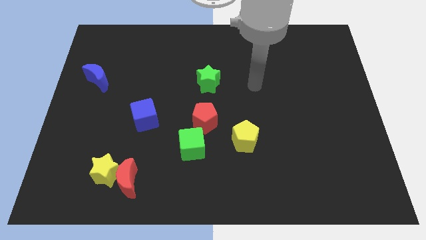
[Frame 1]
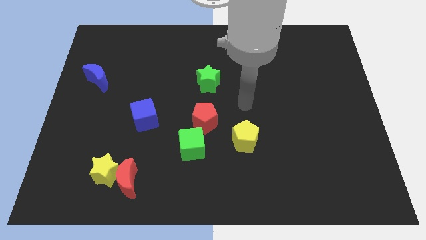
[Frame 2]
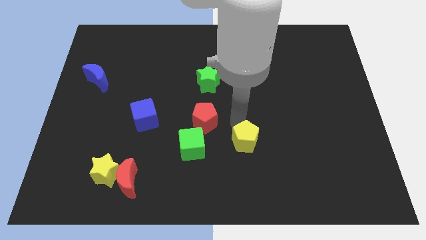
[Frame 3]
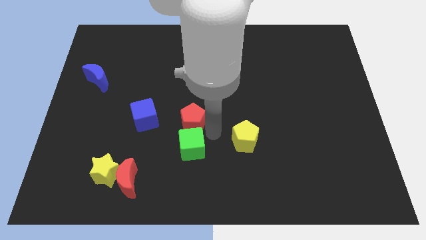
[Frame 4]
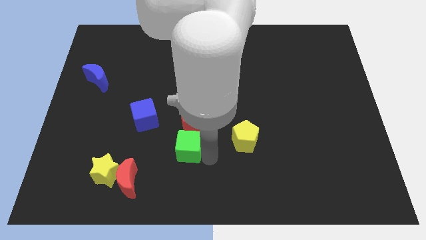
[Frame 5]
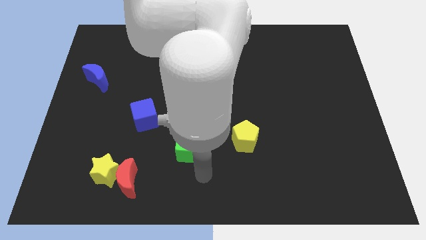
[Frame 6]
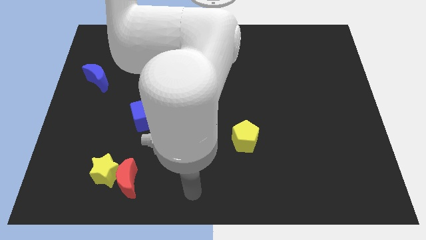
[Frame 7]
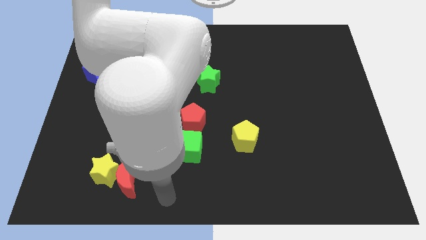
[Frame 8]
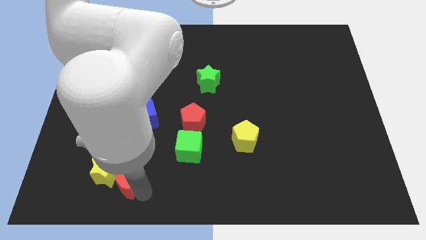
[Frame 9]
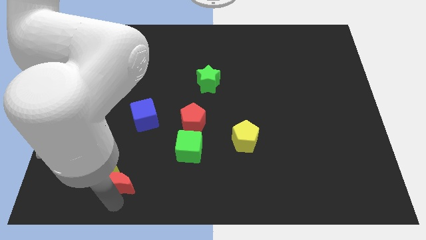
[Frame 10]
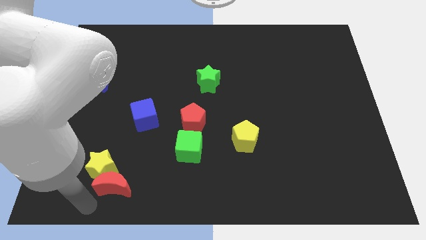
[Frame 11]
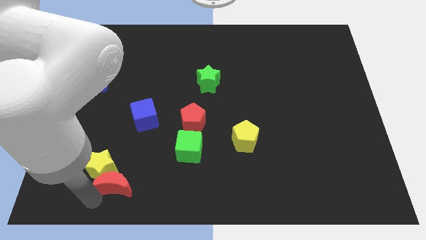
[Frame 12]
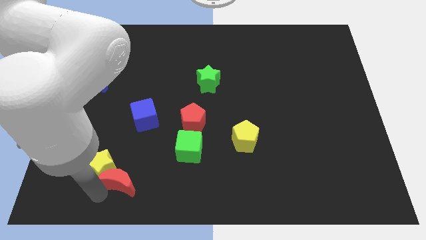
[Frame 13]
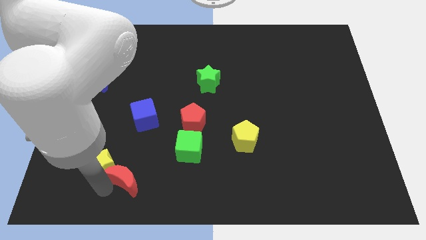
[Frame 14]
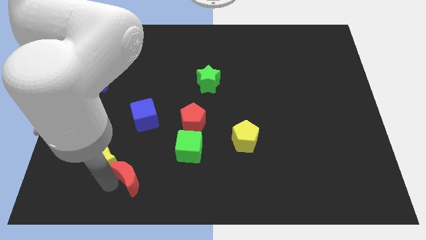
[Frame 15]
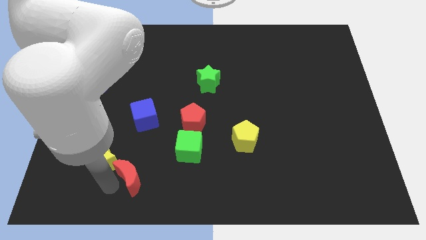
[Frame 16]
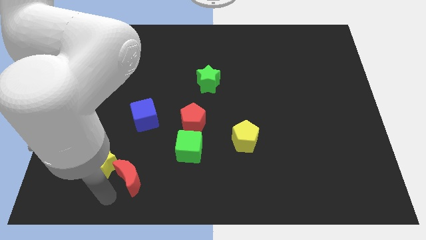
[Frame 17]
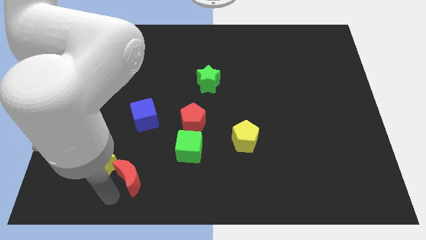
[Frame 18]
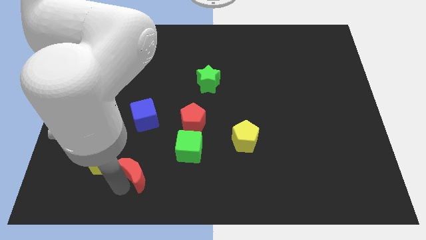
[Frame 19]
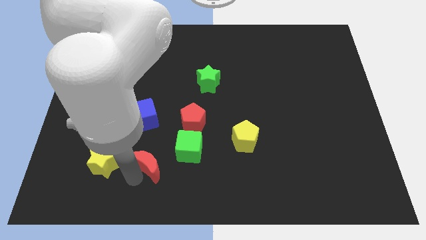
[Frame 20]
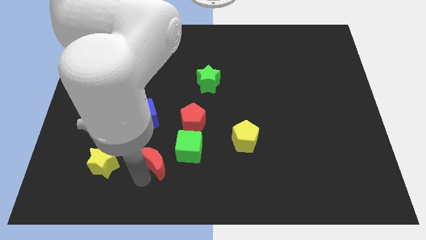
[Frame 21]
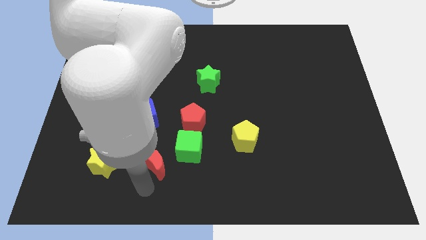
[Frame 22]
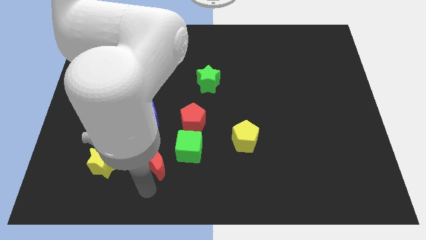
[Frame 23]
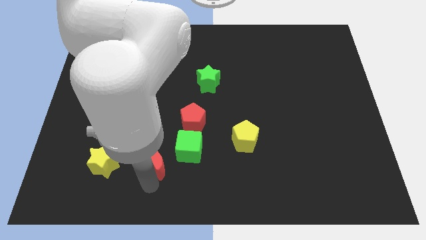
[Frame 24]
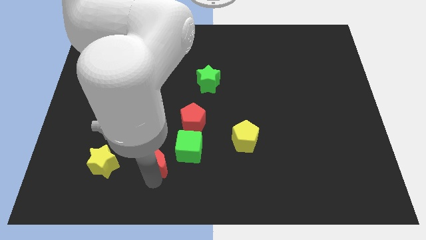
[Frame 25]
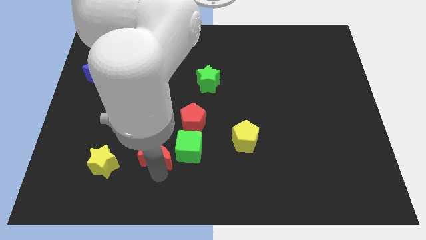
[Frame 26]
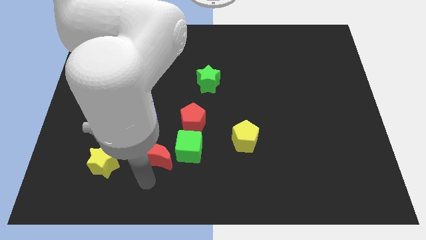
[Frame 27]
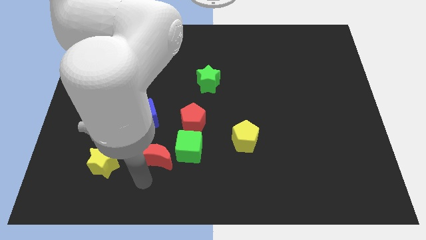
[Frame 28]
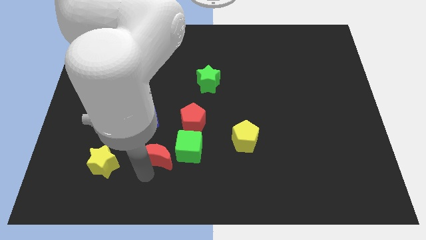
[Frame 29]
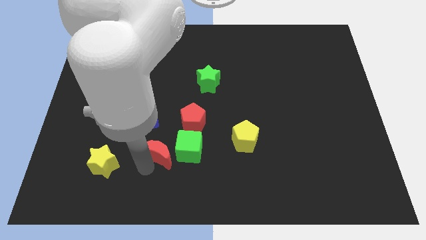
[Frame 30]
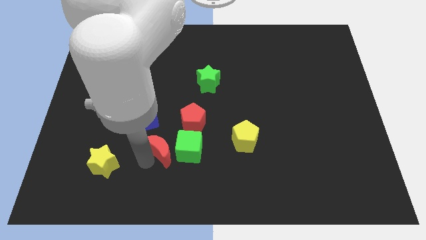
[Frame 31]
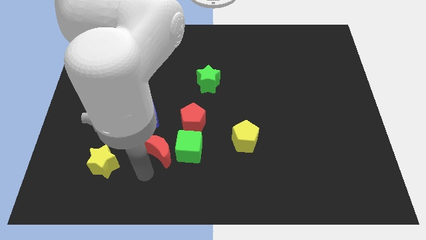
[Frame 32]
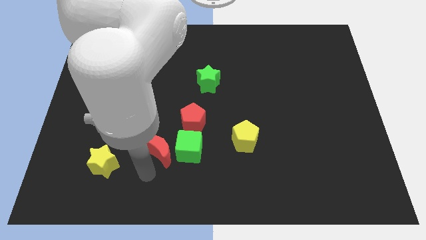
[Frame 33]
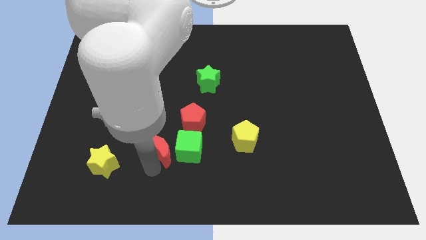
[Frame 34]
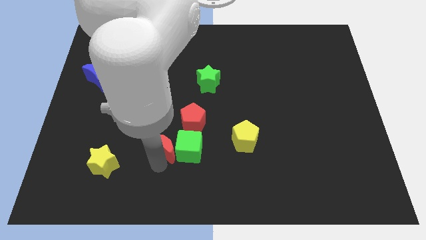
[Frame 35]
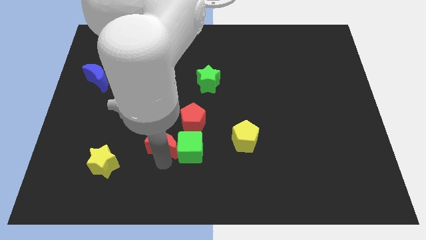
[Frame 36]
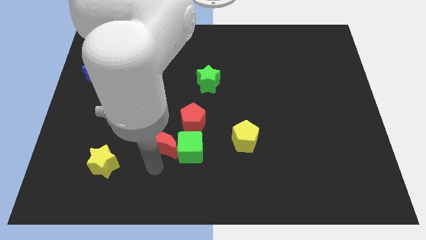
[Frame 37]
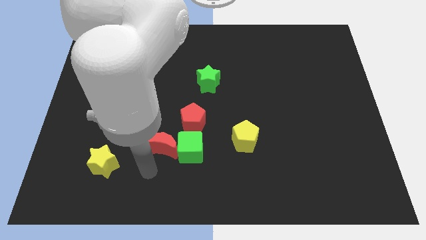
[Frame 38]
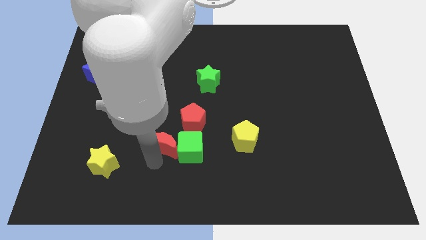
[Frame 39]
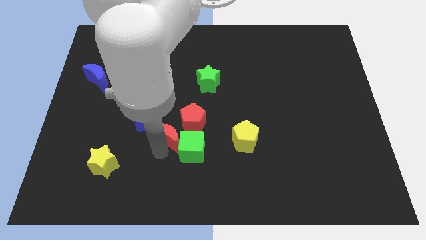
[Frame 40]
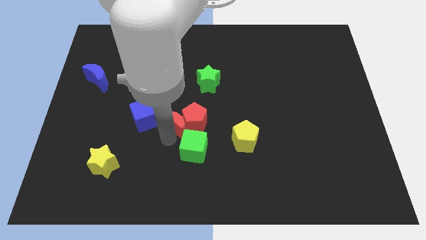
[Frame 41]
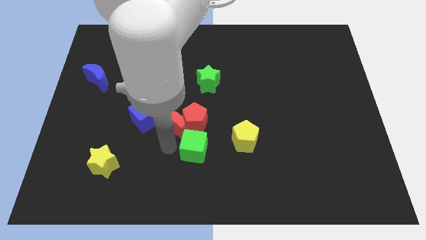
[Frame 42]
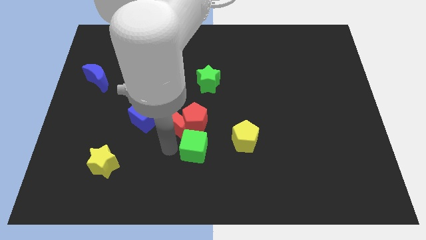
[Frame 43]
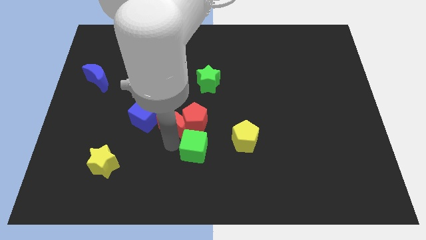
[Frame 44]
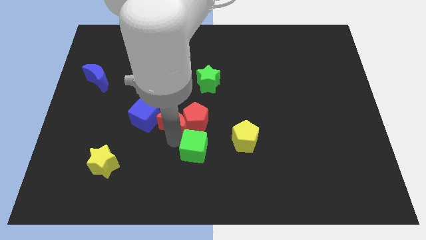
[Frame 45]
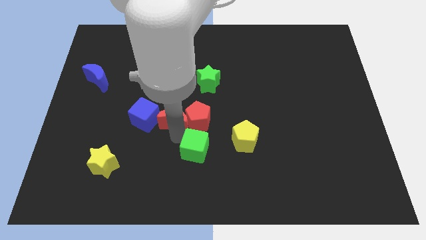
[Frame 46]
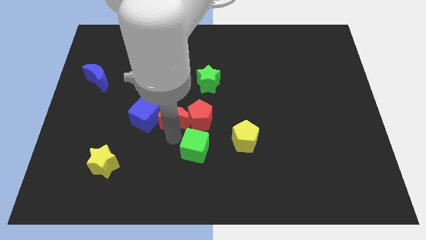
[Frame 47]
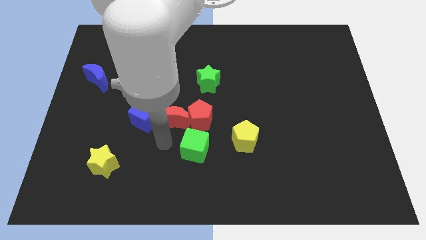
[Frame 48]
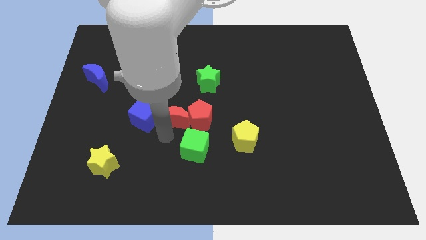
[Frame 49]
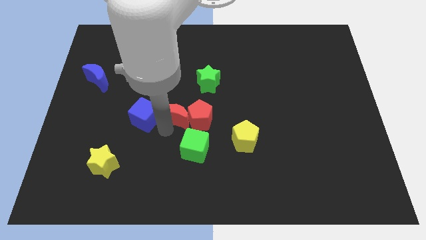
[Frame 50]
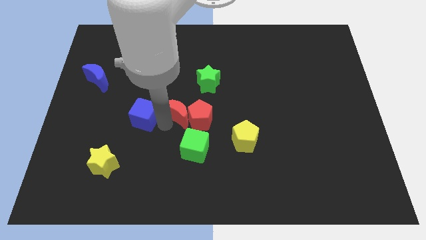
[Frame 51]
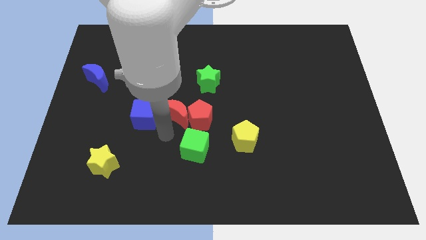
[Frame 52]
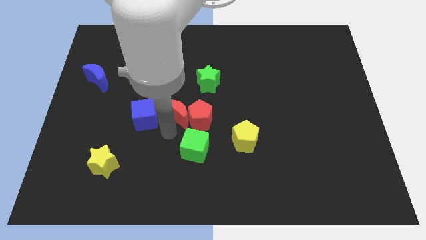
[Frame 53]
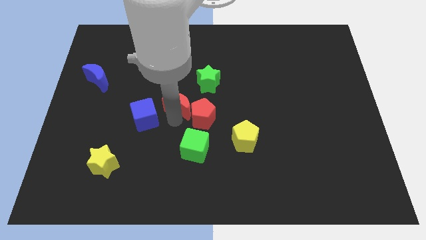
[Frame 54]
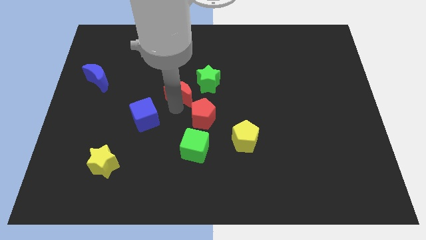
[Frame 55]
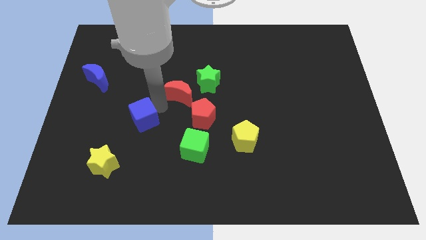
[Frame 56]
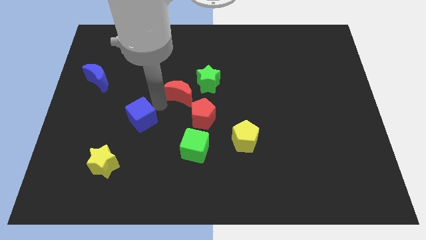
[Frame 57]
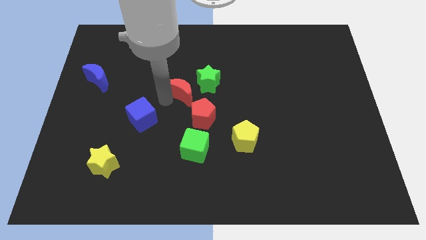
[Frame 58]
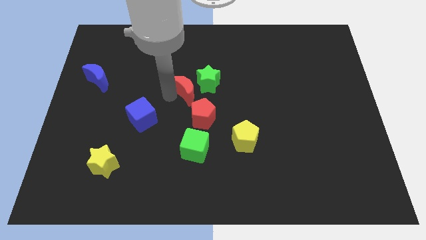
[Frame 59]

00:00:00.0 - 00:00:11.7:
push the red moon close to the green star

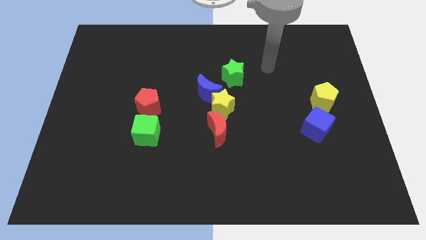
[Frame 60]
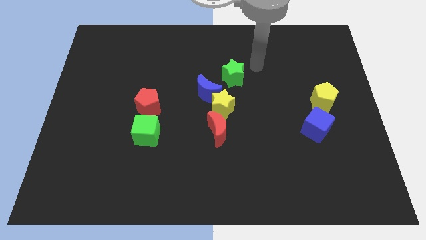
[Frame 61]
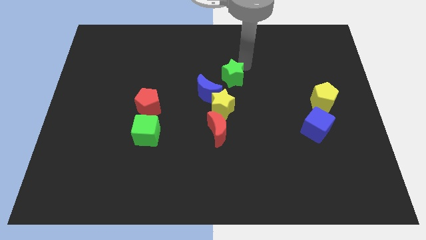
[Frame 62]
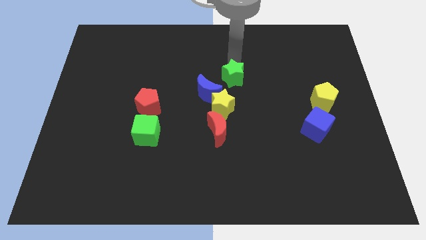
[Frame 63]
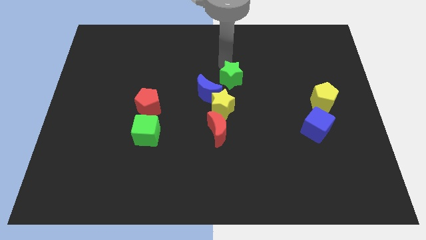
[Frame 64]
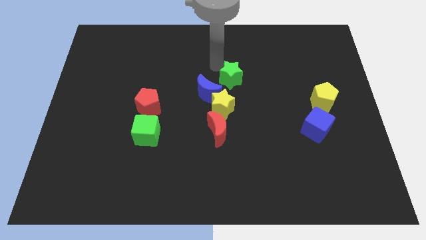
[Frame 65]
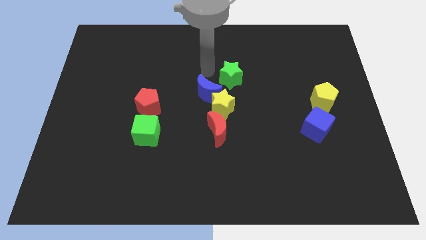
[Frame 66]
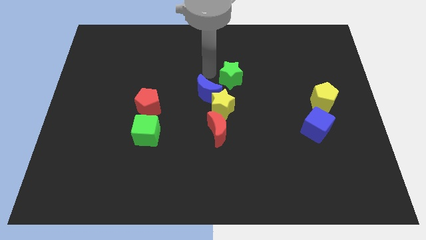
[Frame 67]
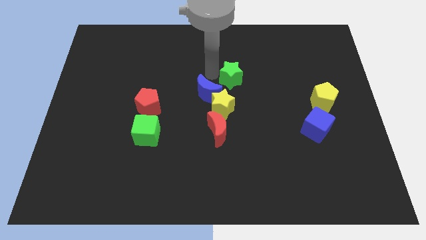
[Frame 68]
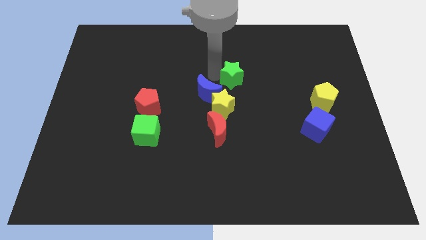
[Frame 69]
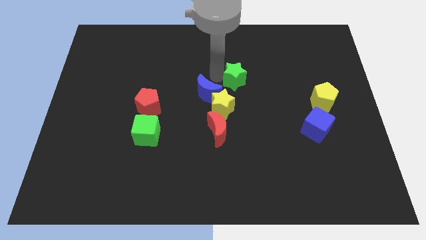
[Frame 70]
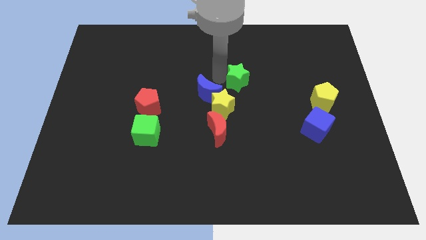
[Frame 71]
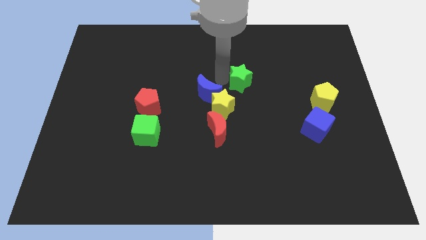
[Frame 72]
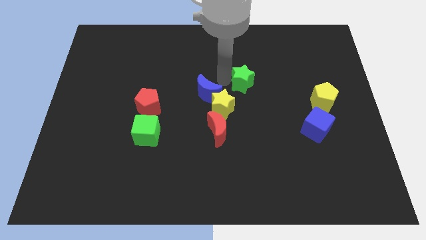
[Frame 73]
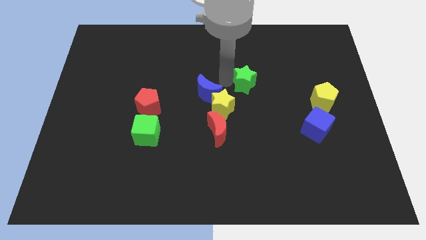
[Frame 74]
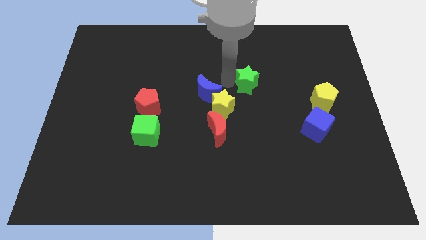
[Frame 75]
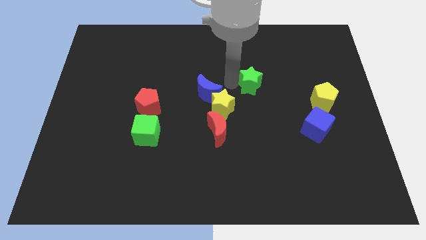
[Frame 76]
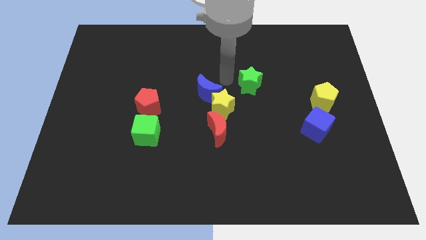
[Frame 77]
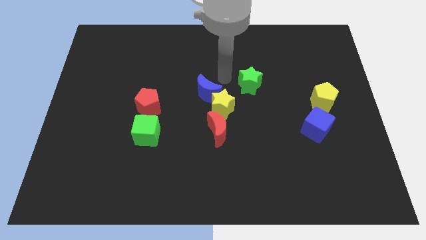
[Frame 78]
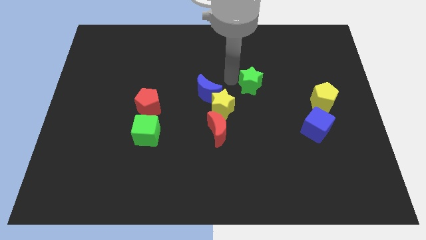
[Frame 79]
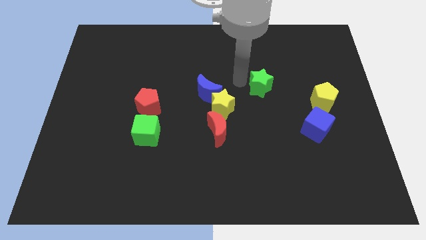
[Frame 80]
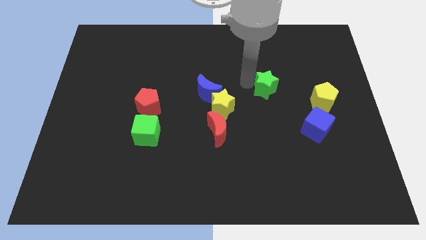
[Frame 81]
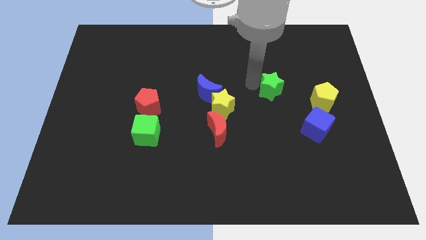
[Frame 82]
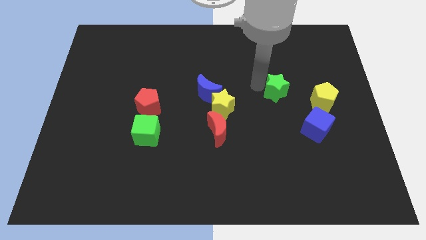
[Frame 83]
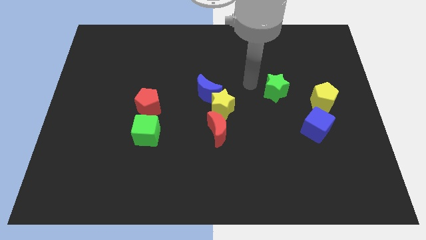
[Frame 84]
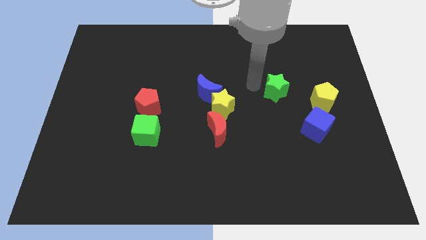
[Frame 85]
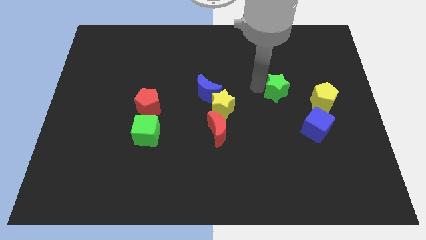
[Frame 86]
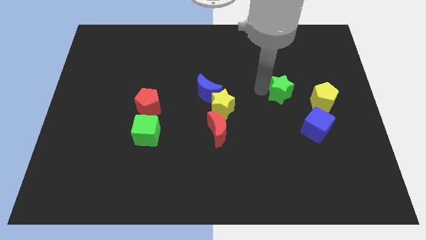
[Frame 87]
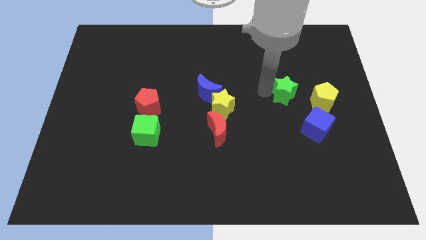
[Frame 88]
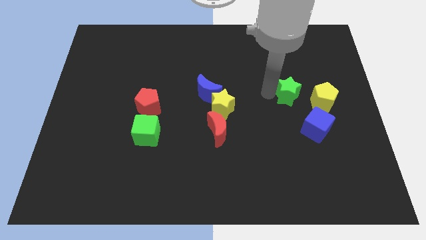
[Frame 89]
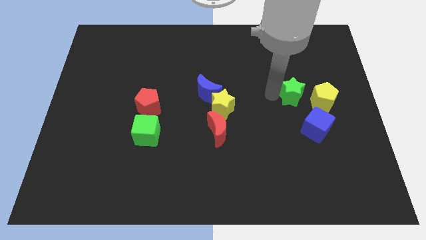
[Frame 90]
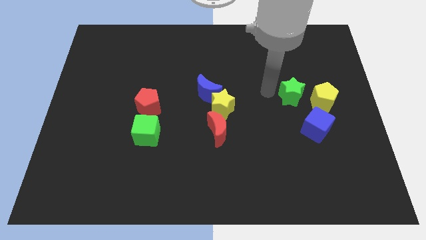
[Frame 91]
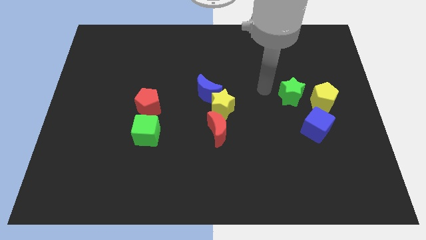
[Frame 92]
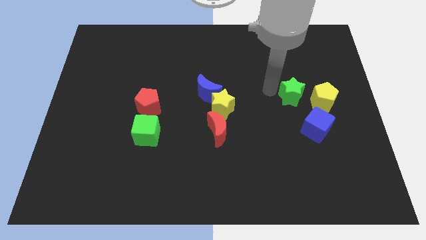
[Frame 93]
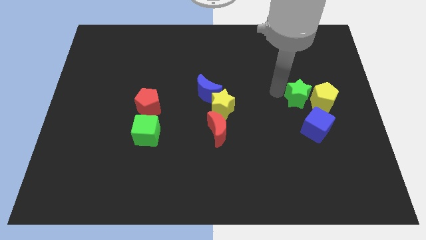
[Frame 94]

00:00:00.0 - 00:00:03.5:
move the green star to the yellow pentagon
